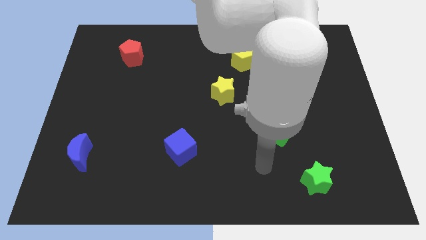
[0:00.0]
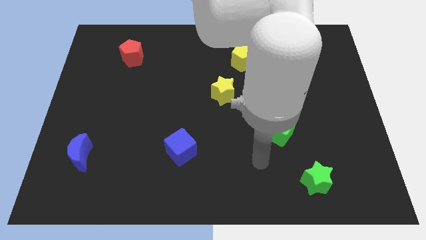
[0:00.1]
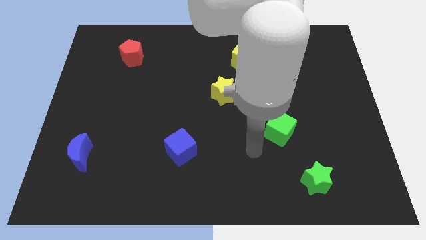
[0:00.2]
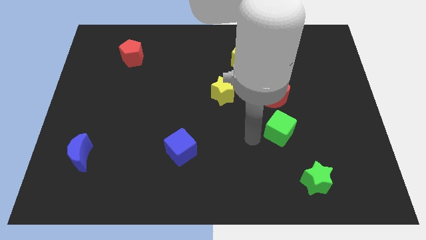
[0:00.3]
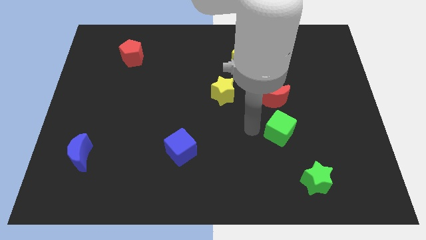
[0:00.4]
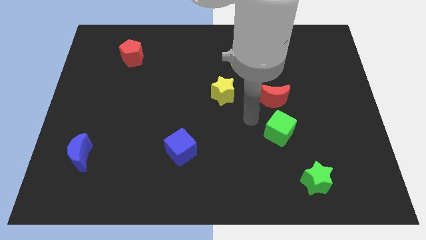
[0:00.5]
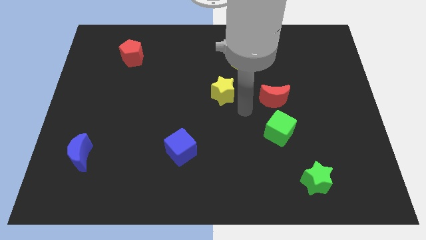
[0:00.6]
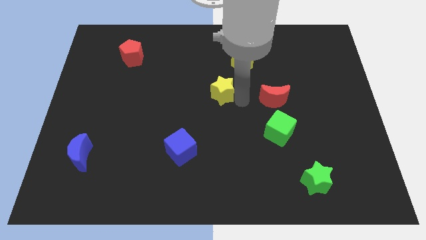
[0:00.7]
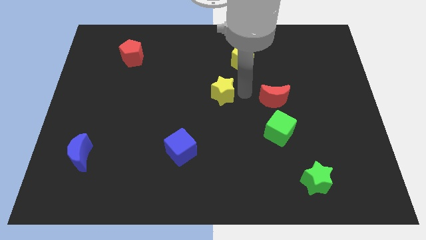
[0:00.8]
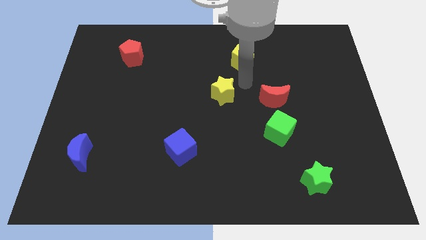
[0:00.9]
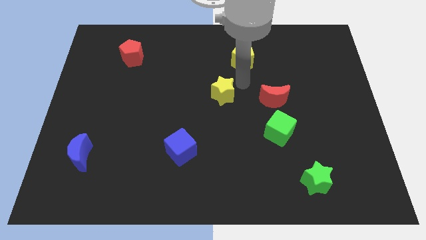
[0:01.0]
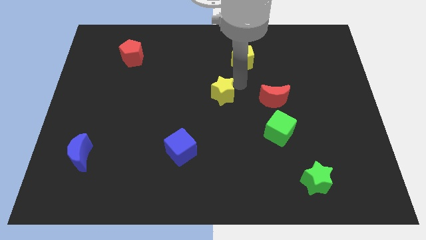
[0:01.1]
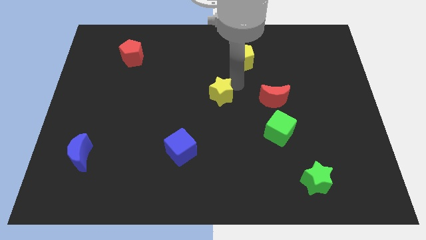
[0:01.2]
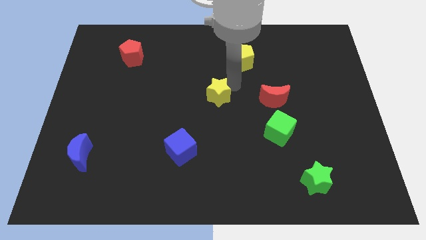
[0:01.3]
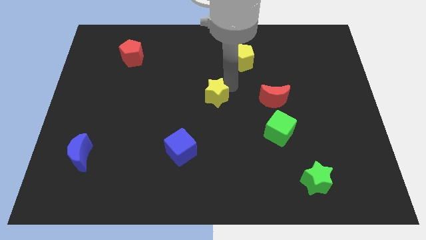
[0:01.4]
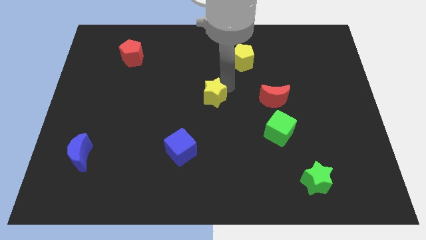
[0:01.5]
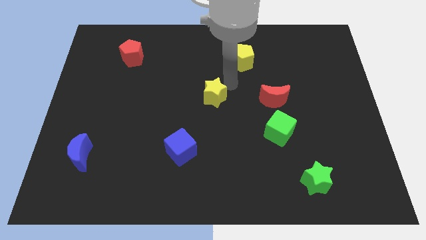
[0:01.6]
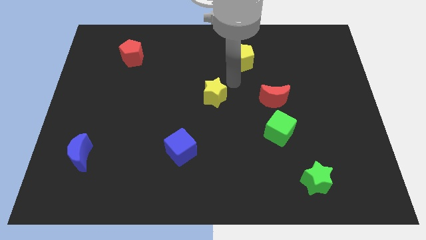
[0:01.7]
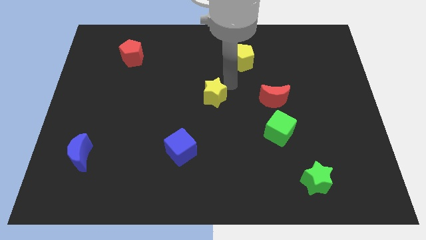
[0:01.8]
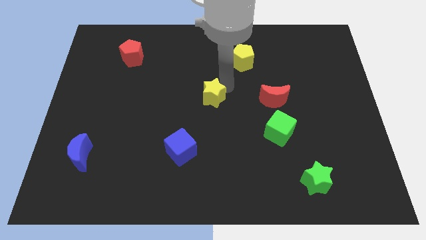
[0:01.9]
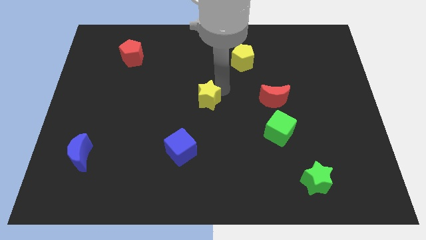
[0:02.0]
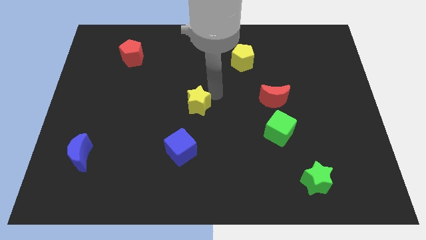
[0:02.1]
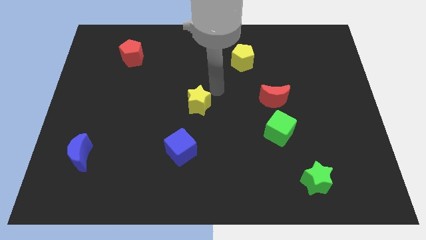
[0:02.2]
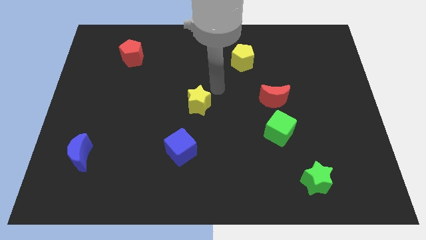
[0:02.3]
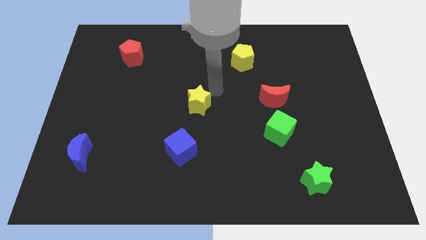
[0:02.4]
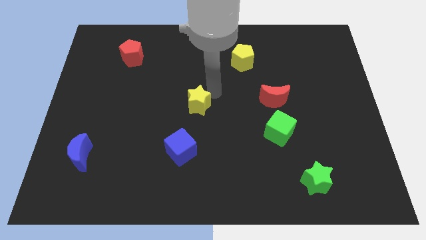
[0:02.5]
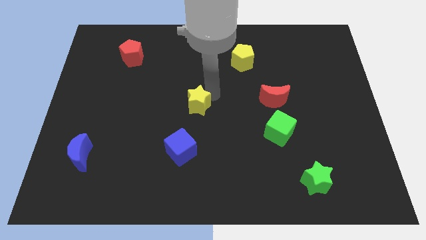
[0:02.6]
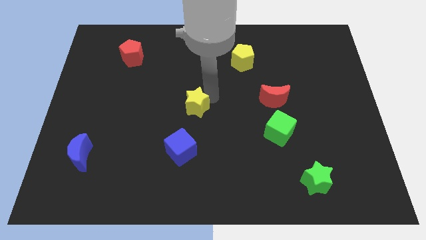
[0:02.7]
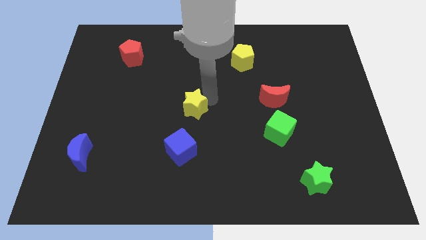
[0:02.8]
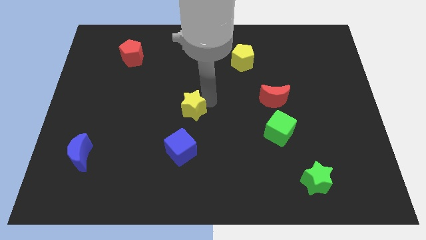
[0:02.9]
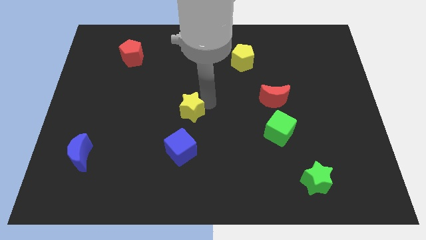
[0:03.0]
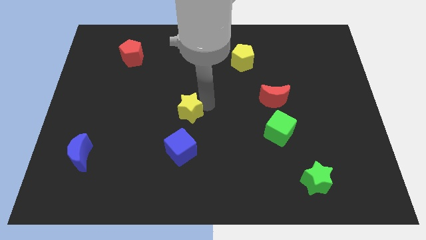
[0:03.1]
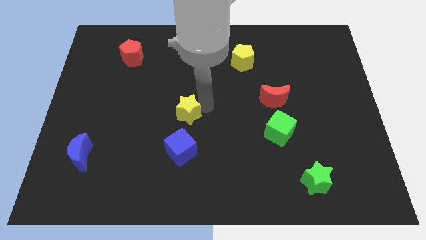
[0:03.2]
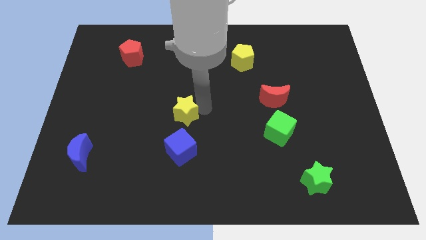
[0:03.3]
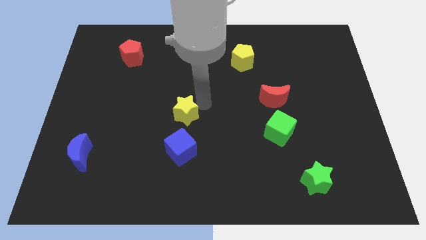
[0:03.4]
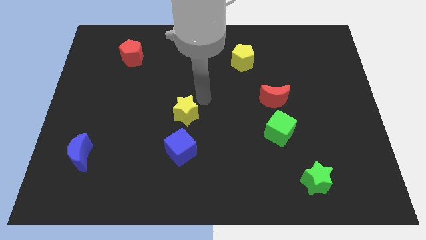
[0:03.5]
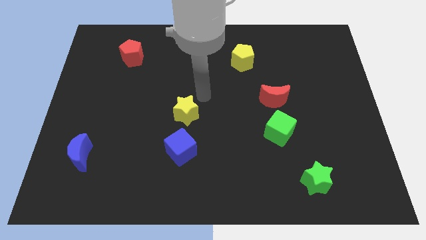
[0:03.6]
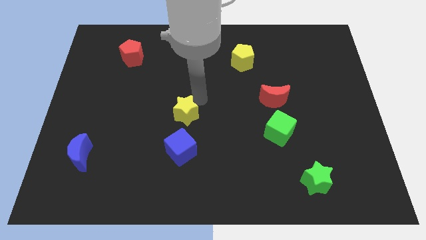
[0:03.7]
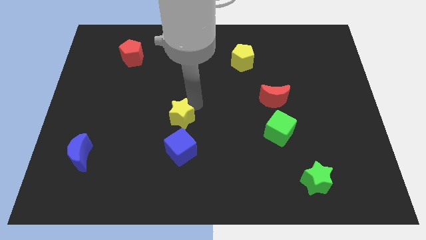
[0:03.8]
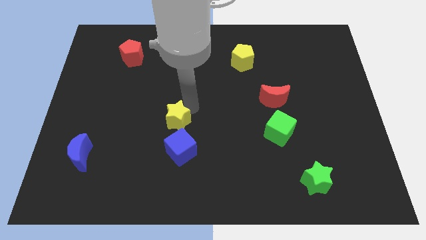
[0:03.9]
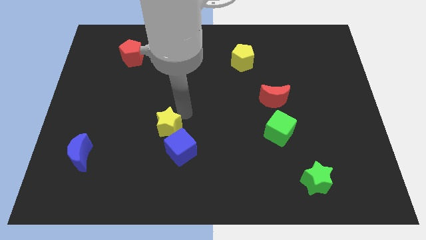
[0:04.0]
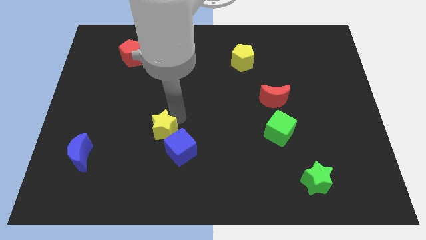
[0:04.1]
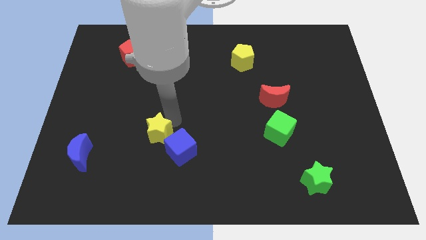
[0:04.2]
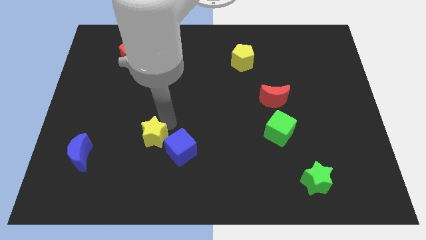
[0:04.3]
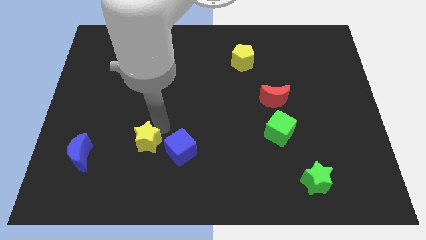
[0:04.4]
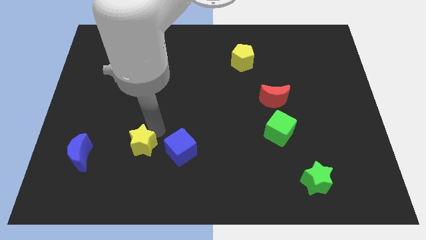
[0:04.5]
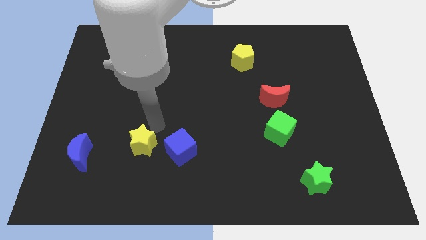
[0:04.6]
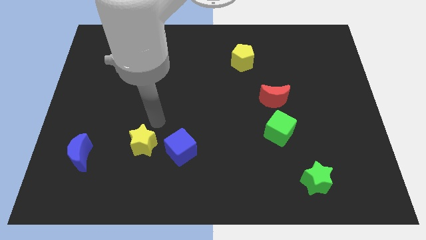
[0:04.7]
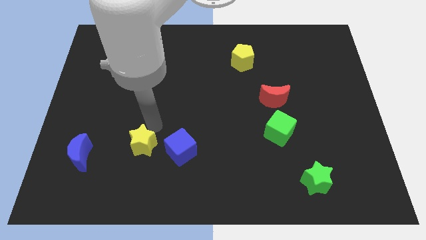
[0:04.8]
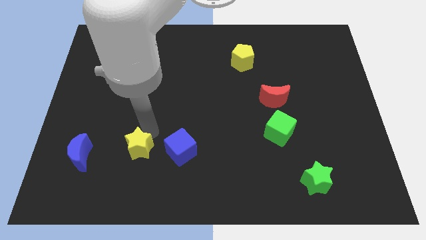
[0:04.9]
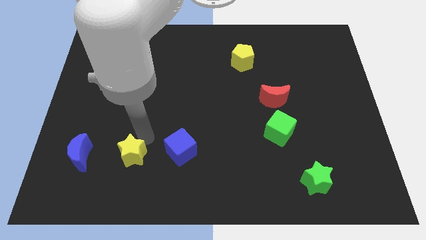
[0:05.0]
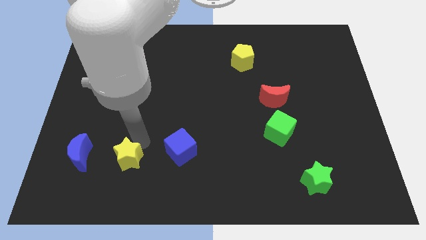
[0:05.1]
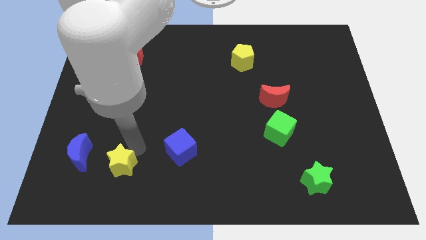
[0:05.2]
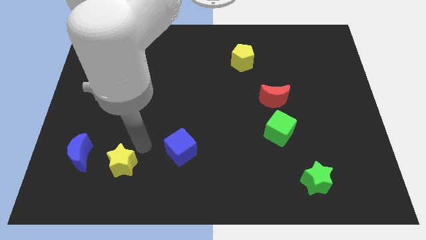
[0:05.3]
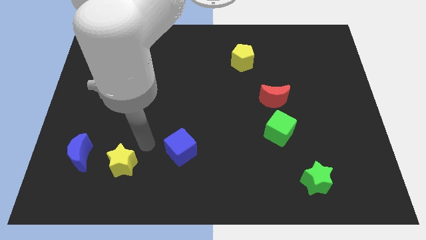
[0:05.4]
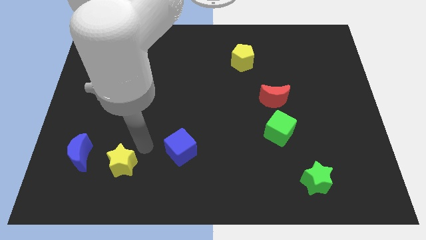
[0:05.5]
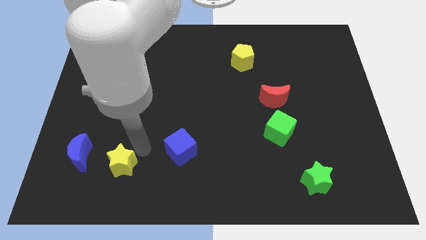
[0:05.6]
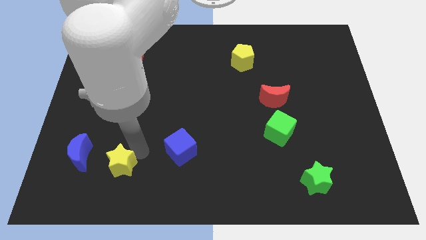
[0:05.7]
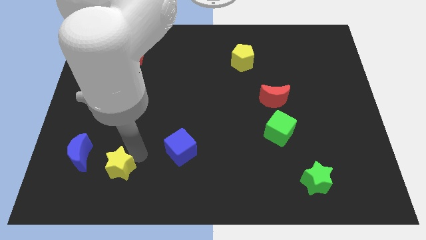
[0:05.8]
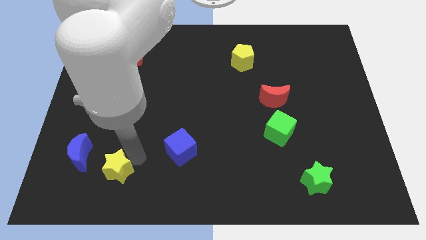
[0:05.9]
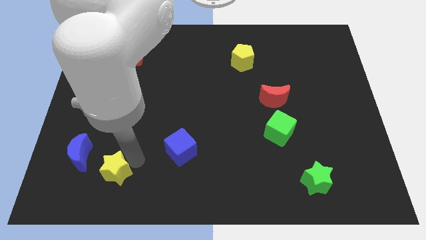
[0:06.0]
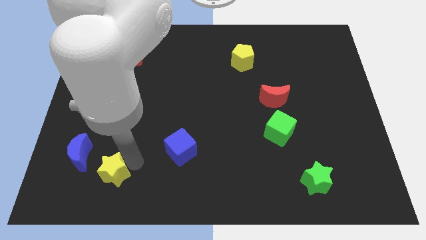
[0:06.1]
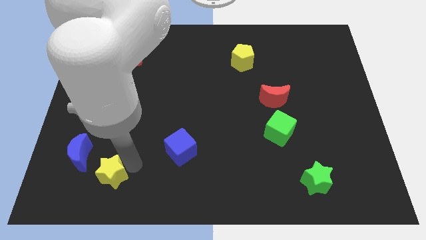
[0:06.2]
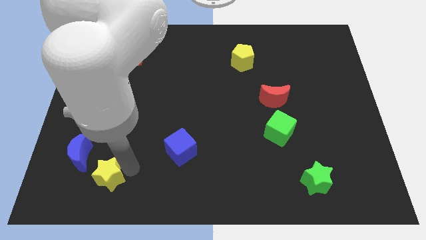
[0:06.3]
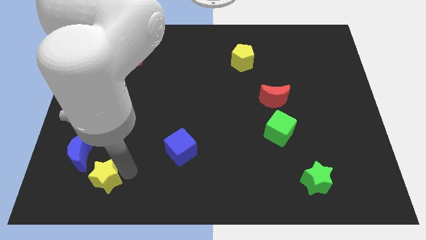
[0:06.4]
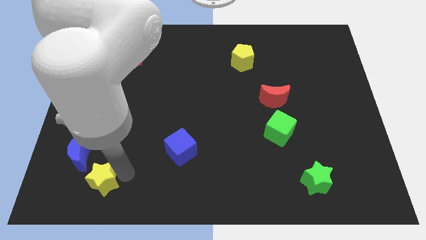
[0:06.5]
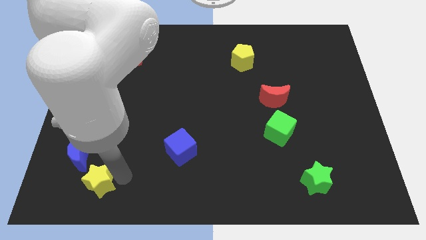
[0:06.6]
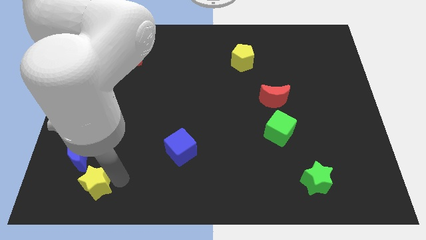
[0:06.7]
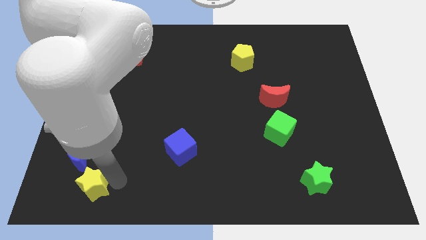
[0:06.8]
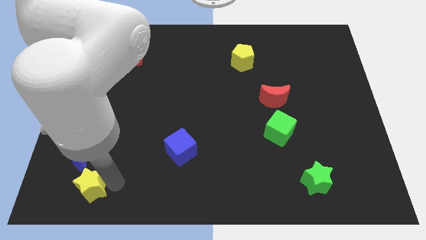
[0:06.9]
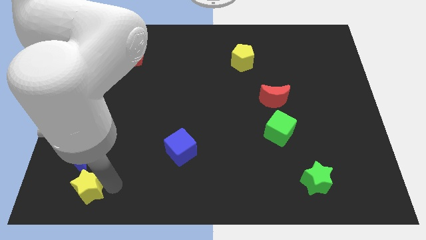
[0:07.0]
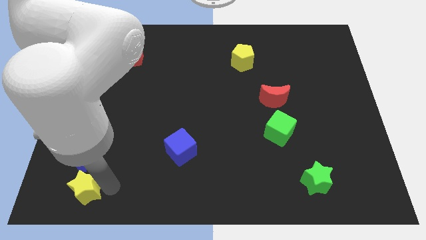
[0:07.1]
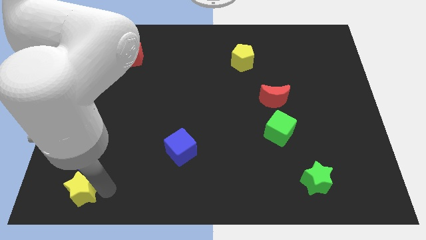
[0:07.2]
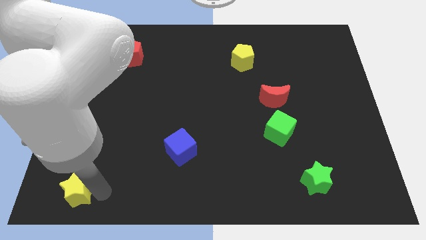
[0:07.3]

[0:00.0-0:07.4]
put the yellow star to the bottom left
